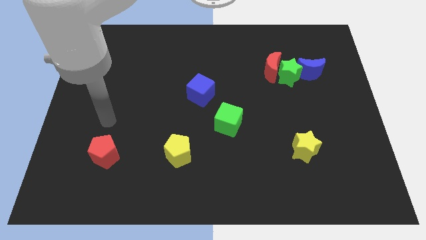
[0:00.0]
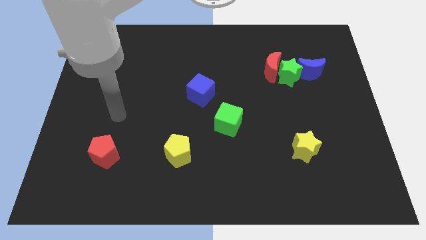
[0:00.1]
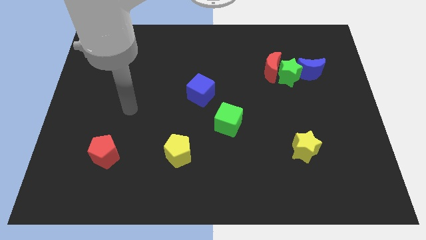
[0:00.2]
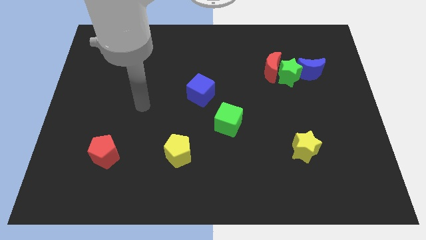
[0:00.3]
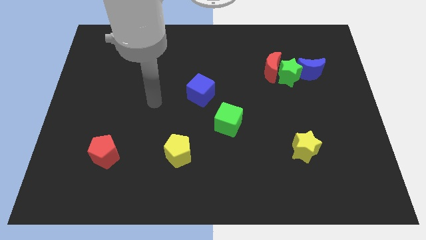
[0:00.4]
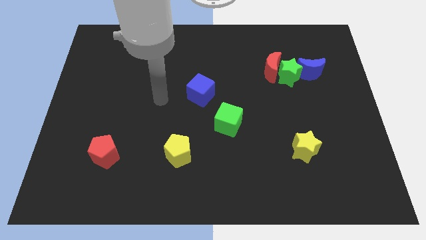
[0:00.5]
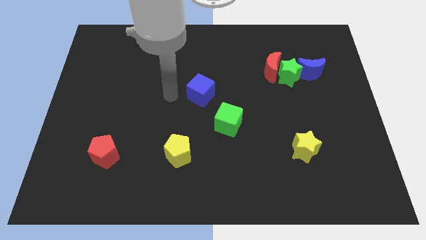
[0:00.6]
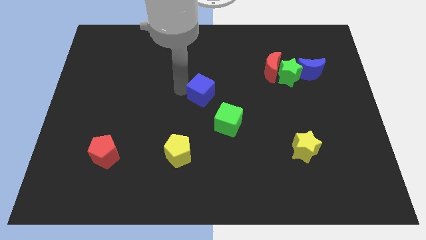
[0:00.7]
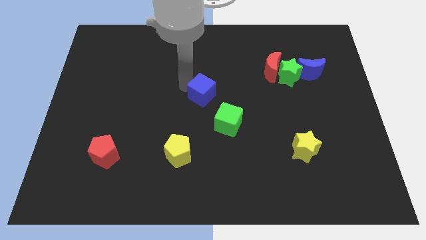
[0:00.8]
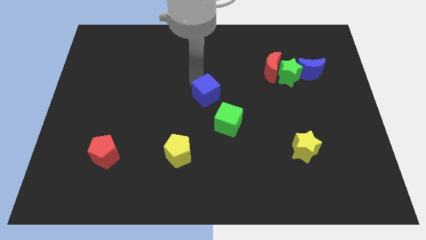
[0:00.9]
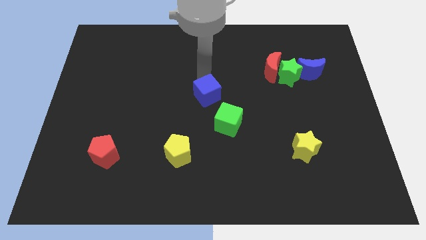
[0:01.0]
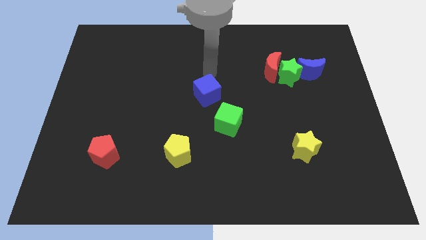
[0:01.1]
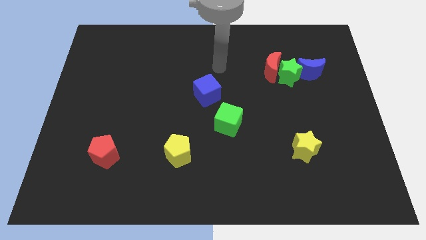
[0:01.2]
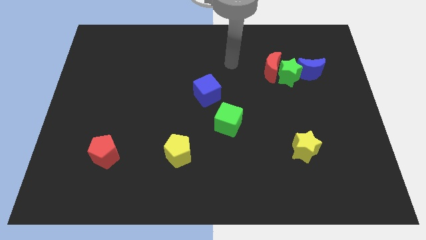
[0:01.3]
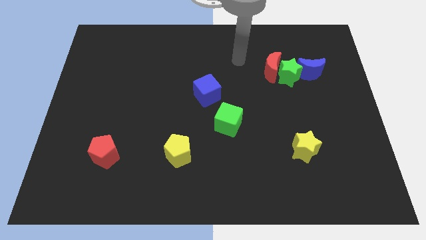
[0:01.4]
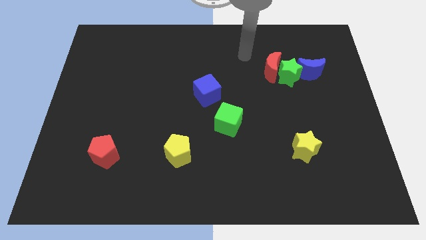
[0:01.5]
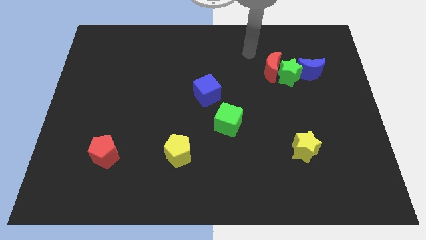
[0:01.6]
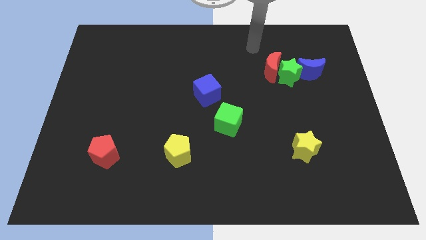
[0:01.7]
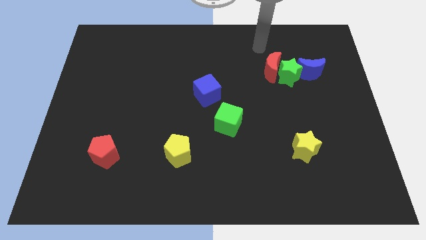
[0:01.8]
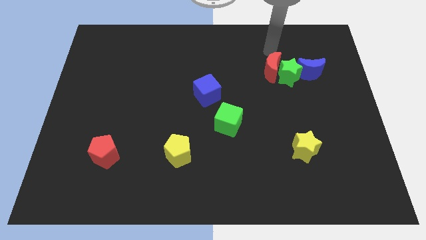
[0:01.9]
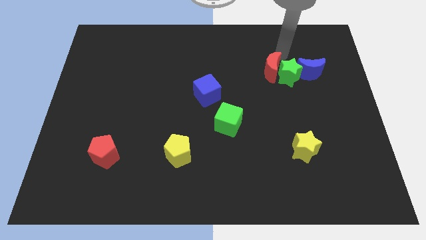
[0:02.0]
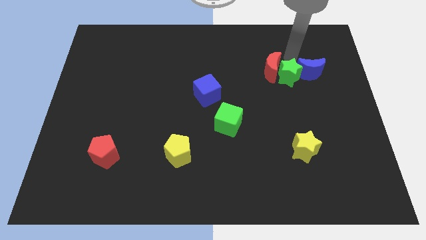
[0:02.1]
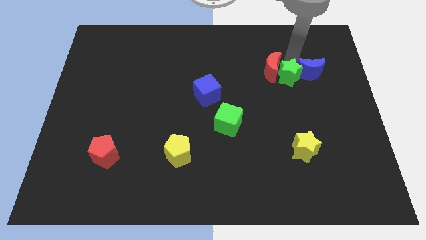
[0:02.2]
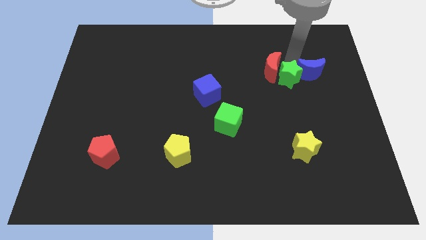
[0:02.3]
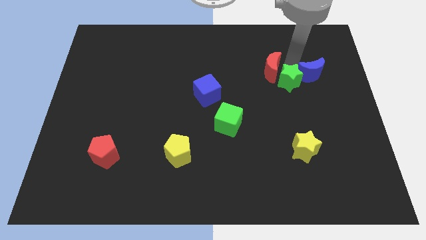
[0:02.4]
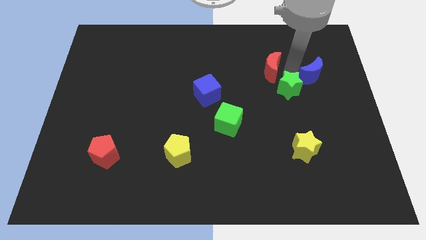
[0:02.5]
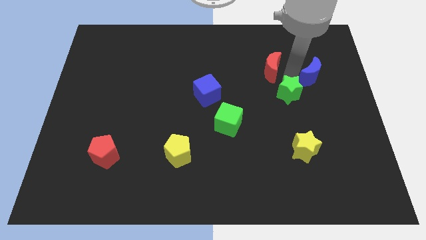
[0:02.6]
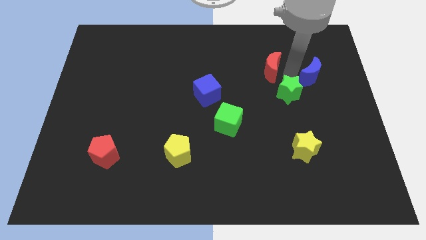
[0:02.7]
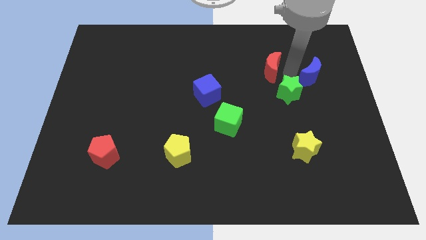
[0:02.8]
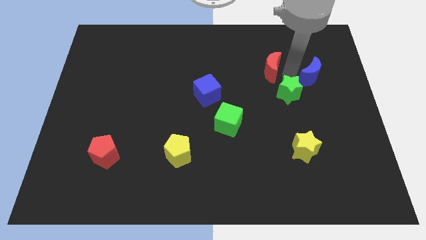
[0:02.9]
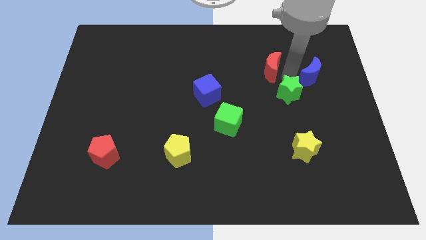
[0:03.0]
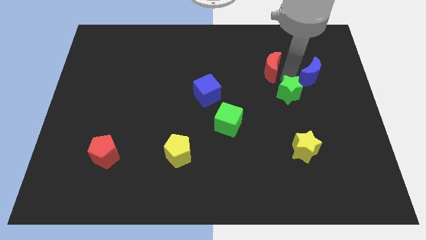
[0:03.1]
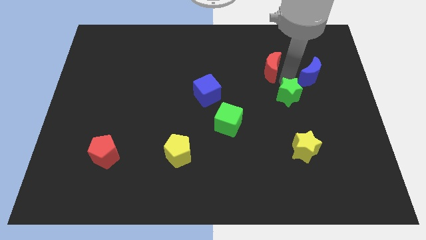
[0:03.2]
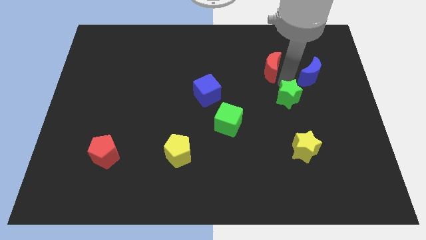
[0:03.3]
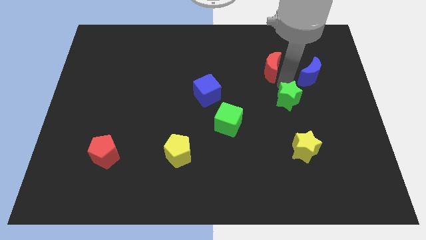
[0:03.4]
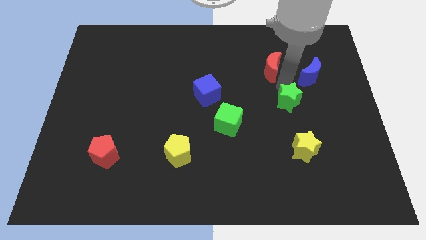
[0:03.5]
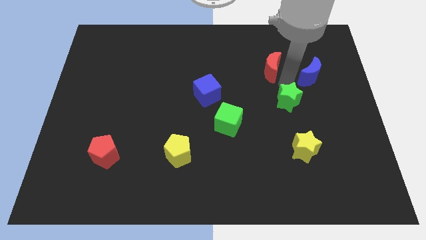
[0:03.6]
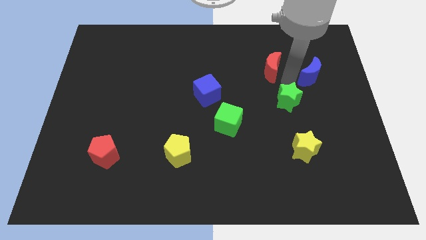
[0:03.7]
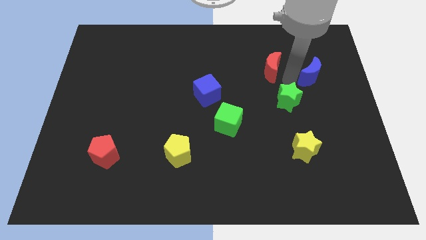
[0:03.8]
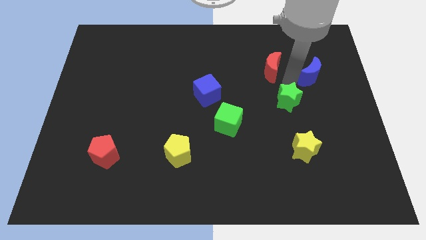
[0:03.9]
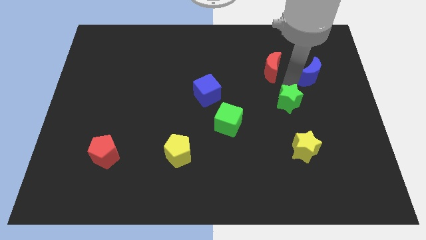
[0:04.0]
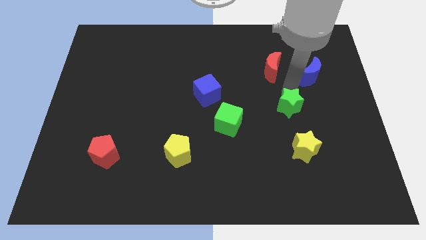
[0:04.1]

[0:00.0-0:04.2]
move the green star away from the red moon and blue moon

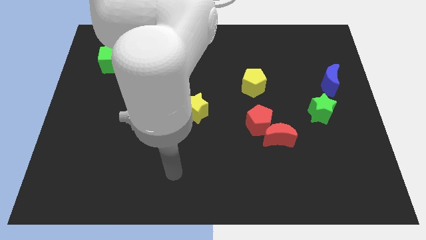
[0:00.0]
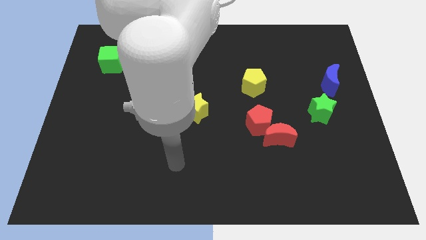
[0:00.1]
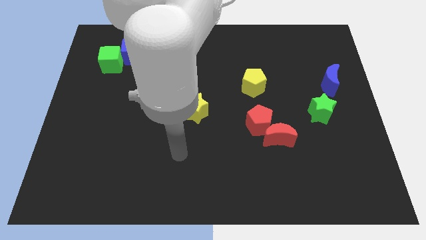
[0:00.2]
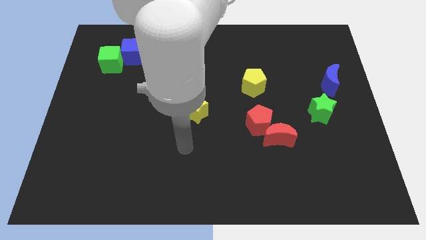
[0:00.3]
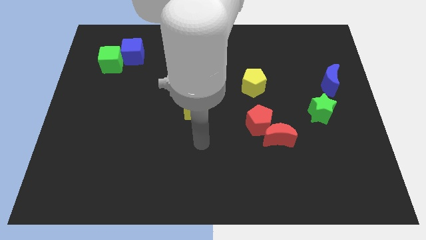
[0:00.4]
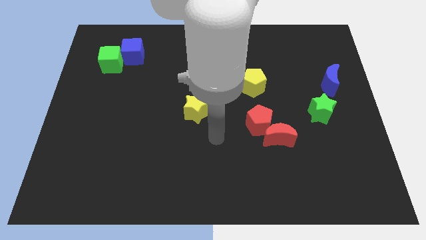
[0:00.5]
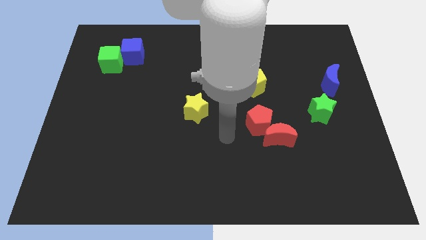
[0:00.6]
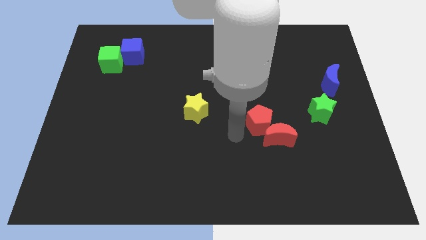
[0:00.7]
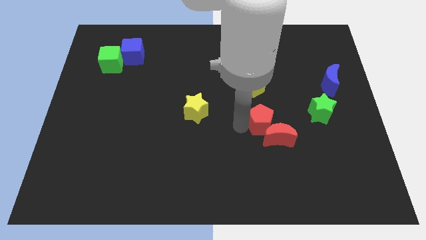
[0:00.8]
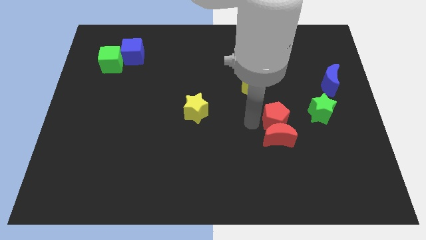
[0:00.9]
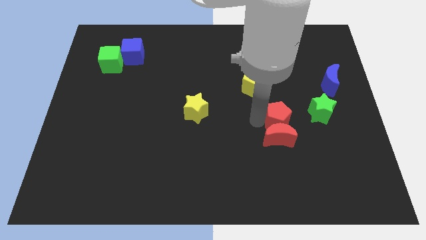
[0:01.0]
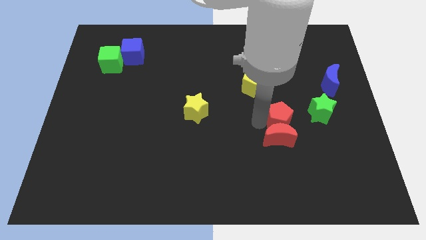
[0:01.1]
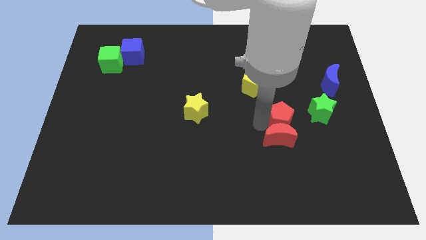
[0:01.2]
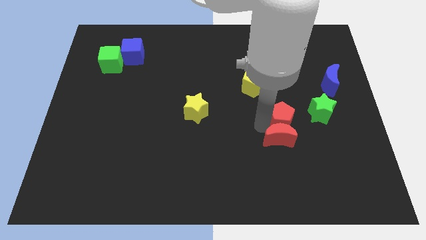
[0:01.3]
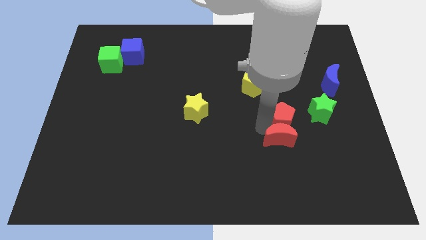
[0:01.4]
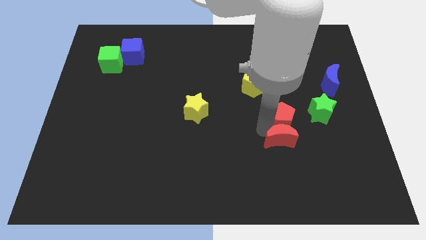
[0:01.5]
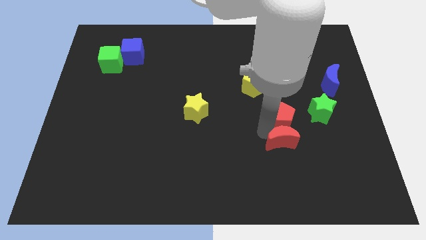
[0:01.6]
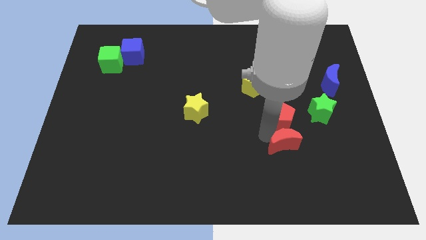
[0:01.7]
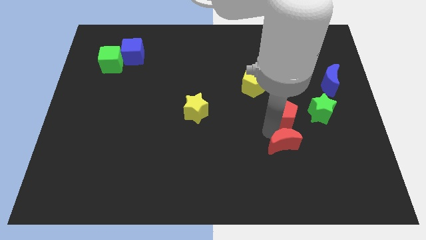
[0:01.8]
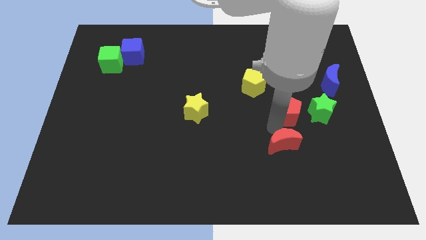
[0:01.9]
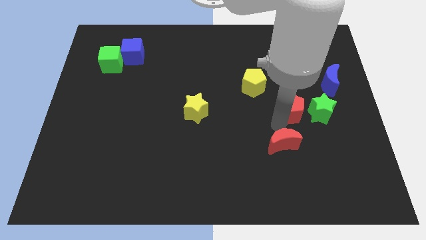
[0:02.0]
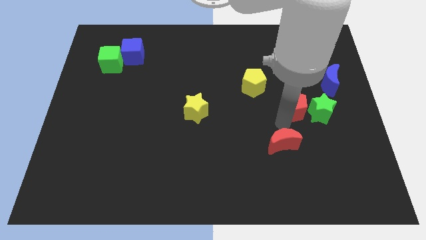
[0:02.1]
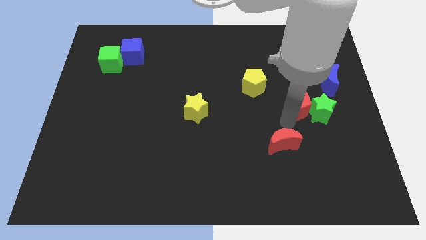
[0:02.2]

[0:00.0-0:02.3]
pull the red moon apart from the red pentagon

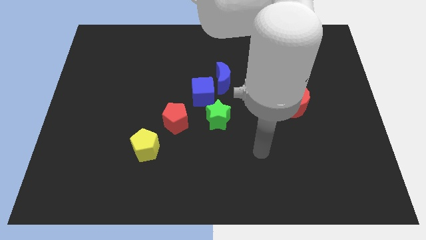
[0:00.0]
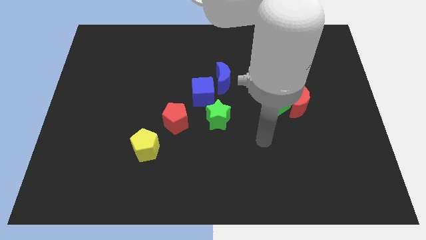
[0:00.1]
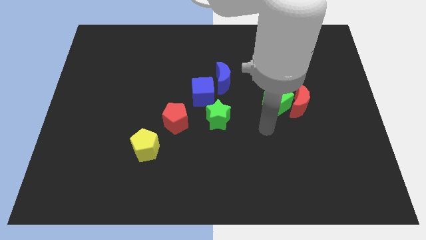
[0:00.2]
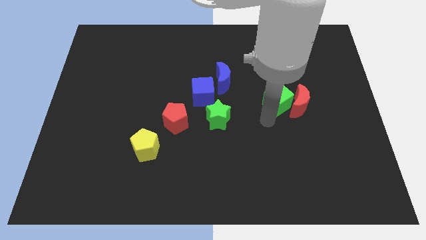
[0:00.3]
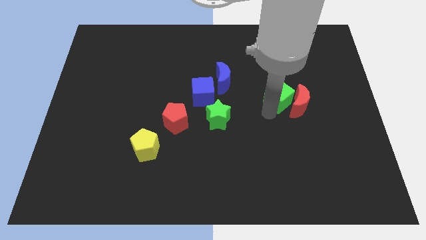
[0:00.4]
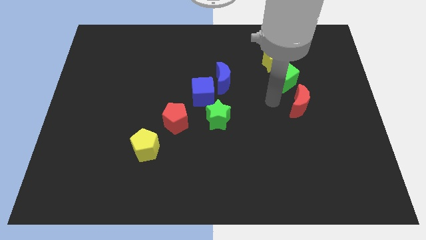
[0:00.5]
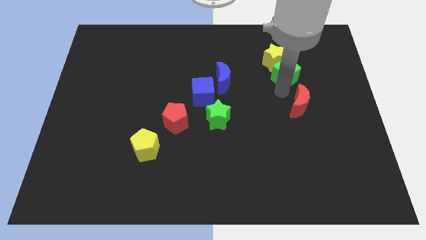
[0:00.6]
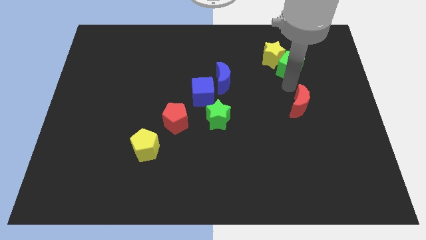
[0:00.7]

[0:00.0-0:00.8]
separate the red moon from the green cube

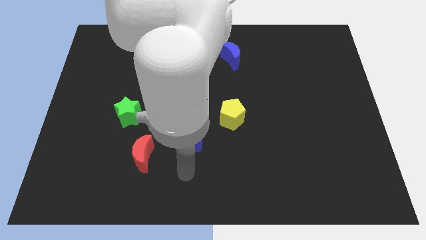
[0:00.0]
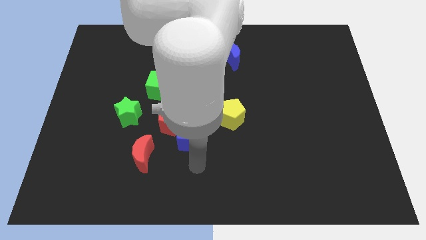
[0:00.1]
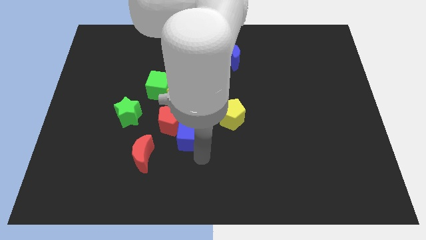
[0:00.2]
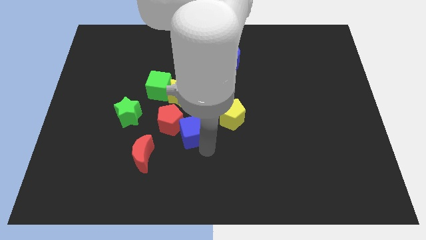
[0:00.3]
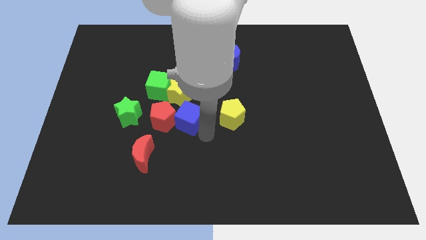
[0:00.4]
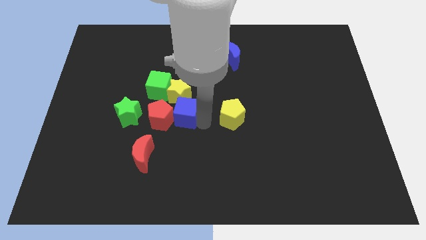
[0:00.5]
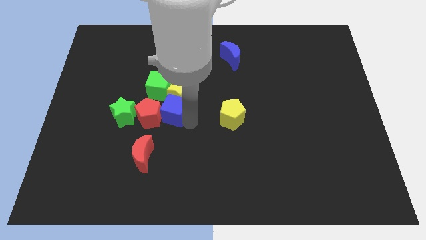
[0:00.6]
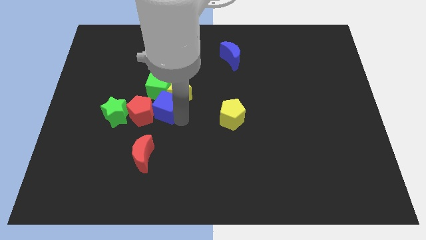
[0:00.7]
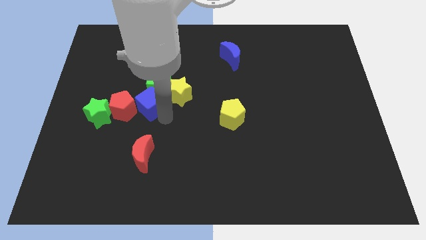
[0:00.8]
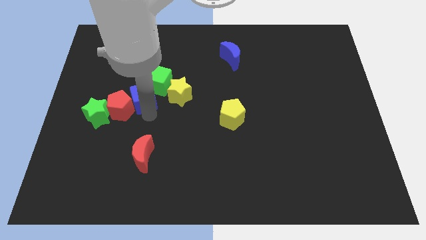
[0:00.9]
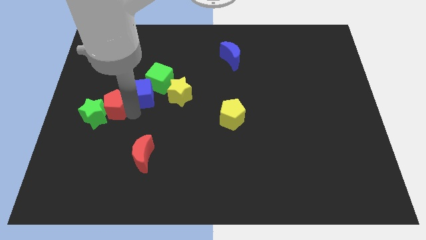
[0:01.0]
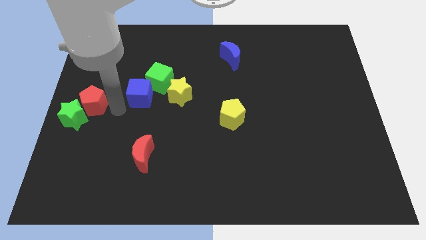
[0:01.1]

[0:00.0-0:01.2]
pull the blue cube apart from the red pentagon

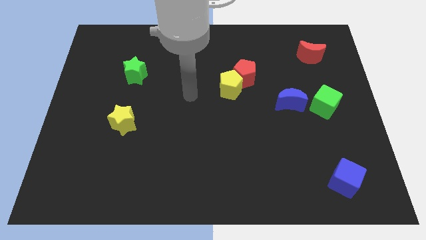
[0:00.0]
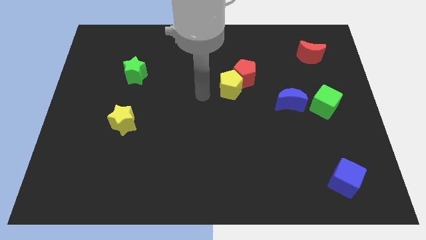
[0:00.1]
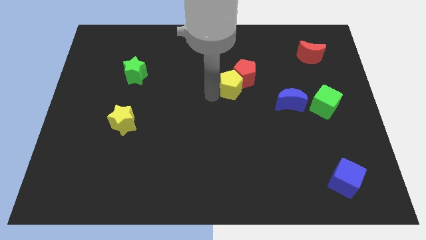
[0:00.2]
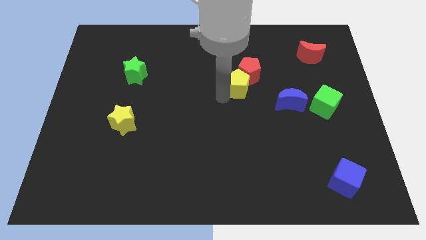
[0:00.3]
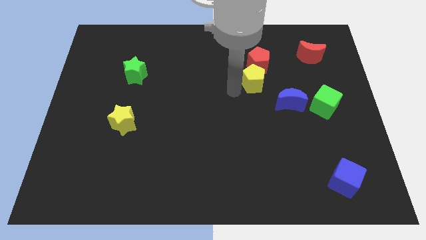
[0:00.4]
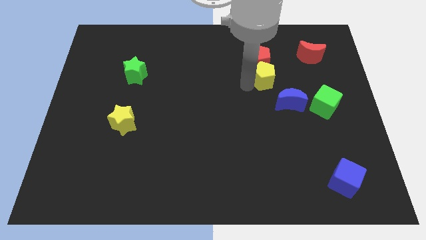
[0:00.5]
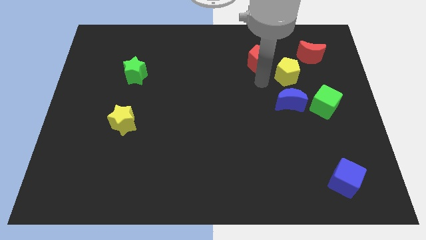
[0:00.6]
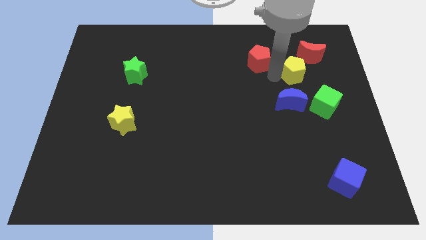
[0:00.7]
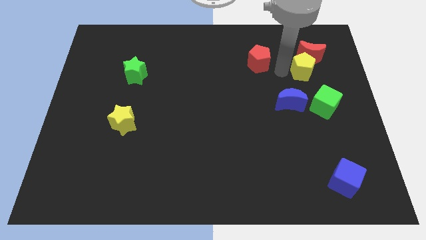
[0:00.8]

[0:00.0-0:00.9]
separate the red pentagon from the yellow pentagon

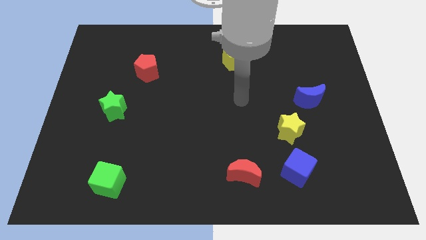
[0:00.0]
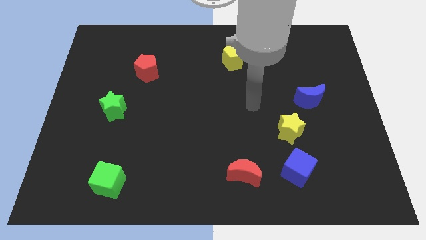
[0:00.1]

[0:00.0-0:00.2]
move the blue cube away from the yellow star
